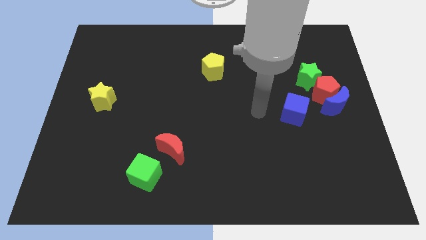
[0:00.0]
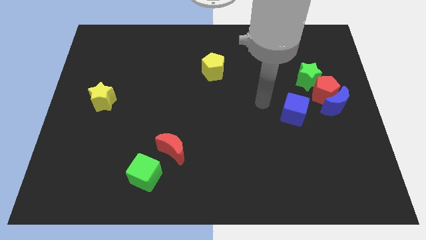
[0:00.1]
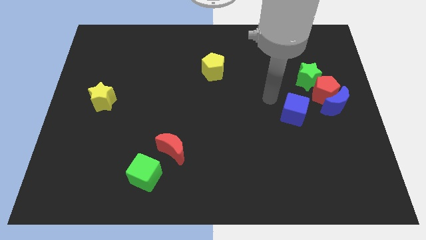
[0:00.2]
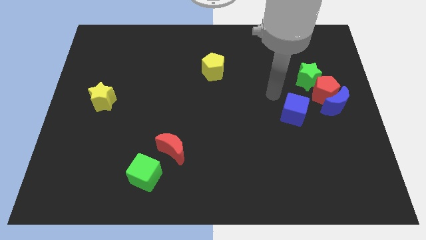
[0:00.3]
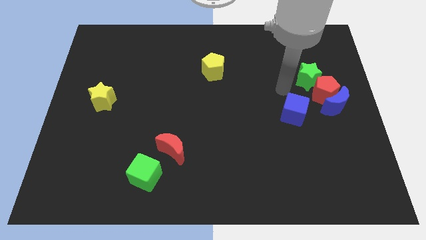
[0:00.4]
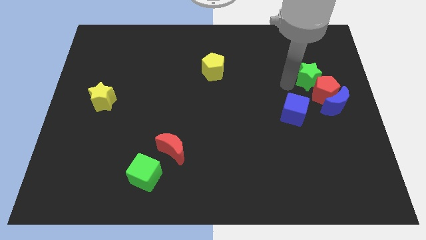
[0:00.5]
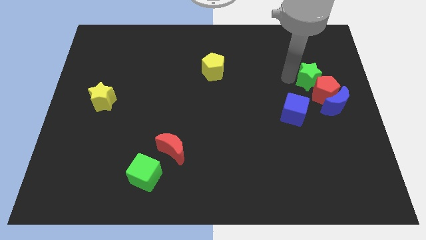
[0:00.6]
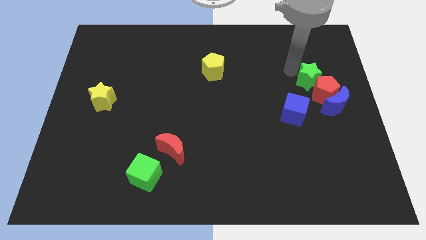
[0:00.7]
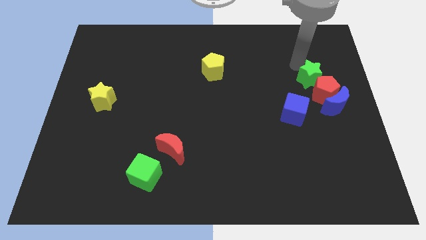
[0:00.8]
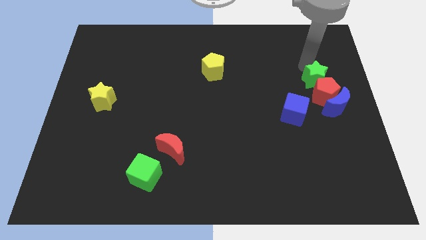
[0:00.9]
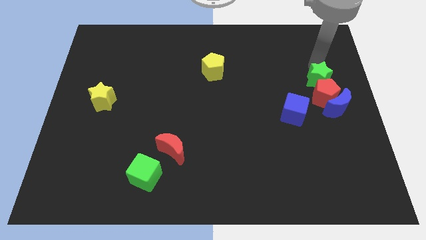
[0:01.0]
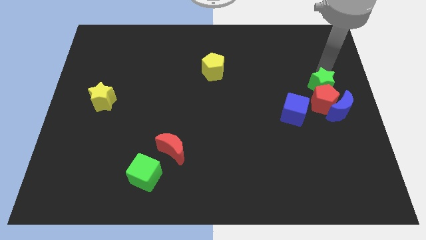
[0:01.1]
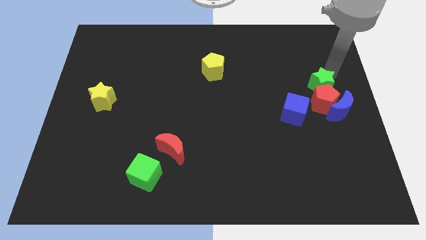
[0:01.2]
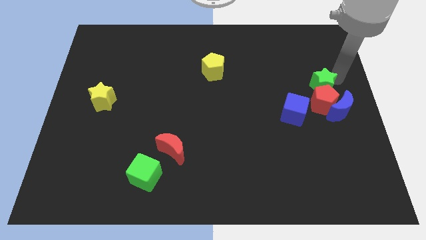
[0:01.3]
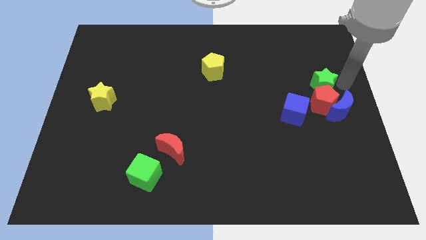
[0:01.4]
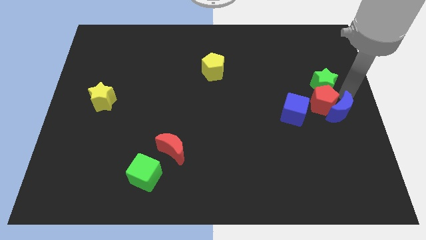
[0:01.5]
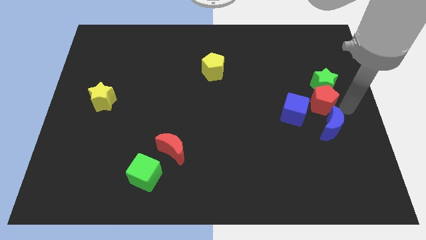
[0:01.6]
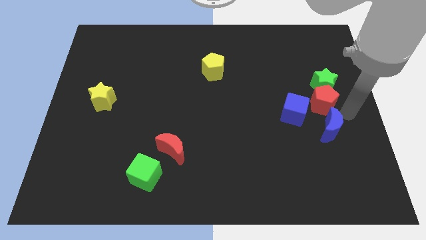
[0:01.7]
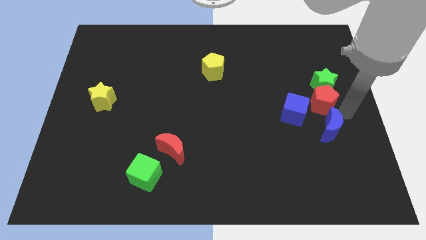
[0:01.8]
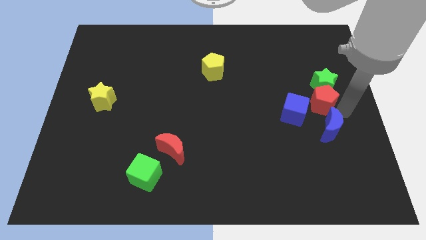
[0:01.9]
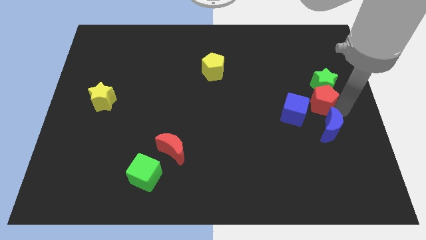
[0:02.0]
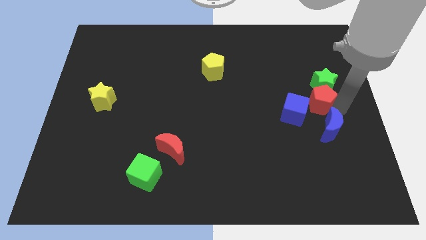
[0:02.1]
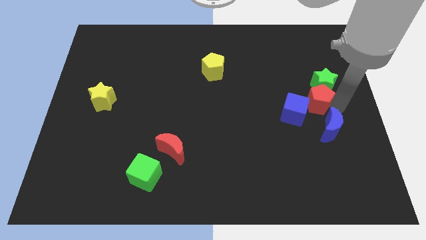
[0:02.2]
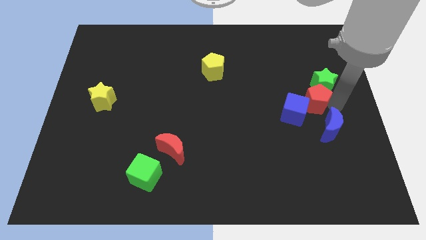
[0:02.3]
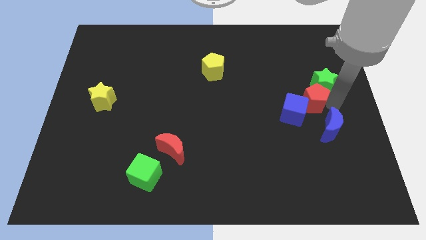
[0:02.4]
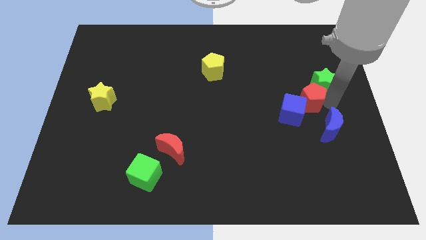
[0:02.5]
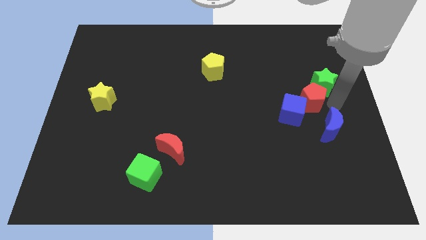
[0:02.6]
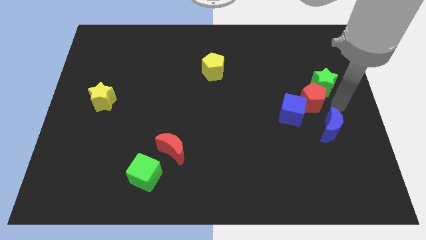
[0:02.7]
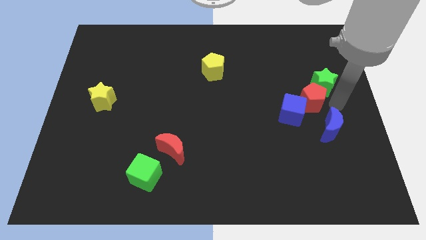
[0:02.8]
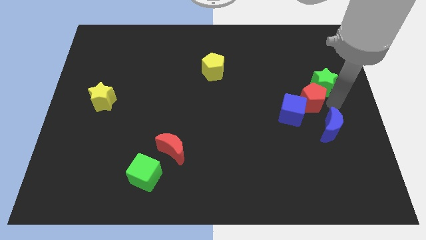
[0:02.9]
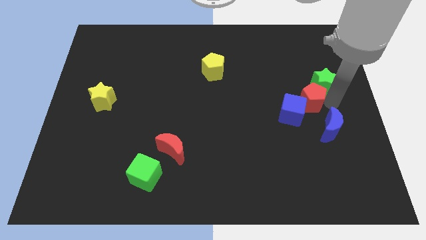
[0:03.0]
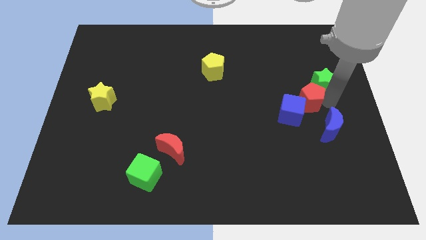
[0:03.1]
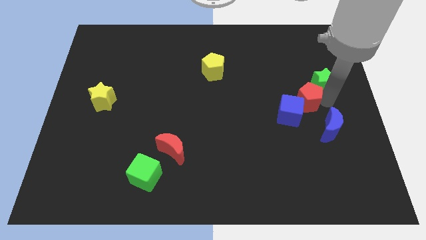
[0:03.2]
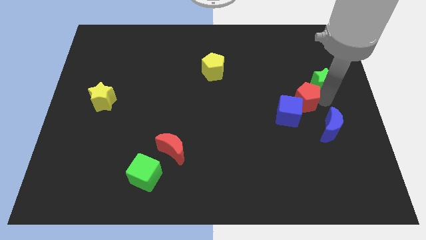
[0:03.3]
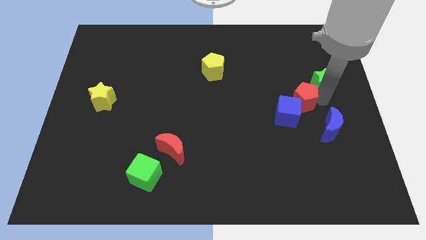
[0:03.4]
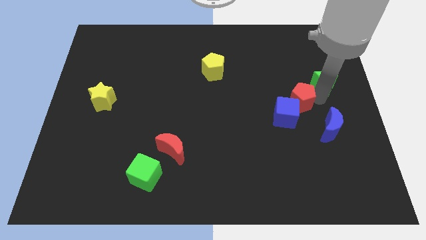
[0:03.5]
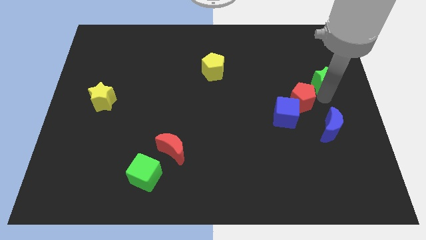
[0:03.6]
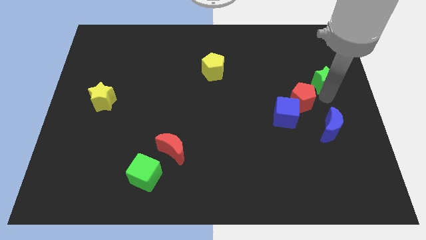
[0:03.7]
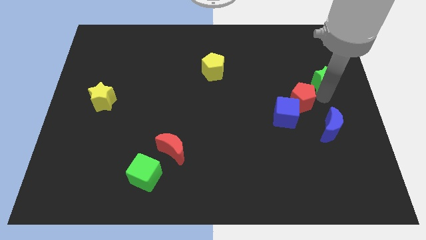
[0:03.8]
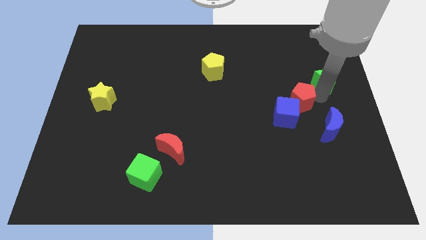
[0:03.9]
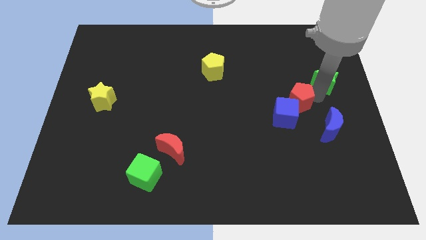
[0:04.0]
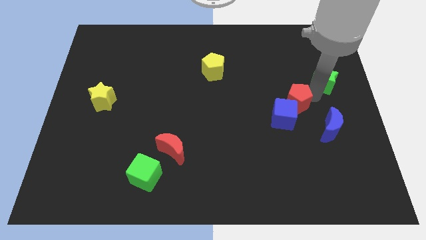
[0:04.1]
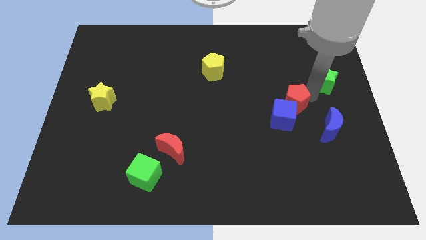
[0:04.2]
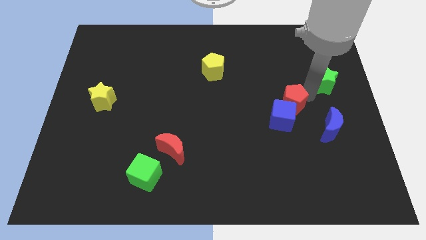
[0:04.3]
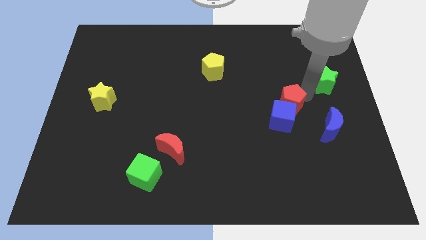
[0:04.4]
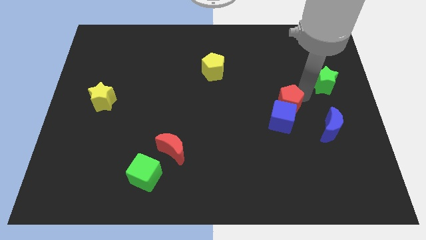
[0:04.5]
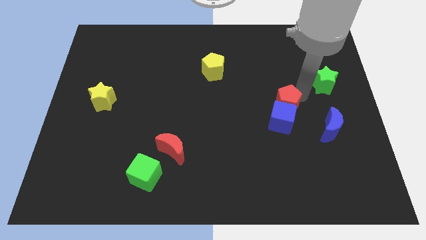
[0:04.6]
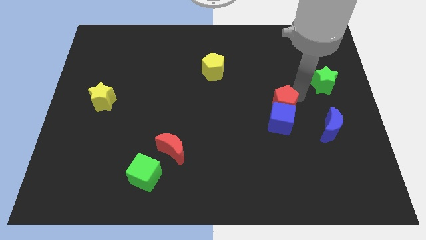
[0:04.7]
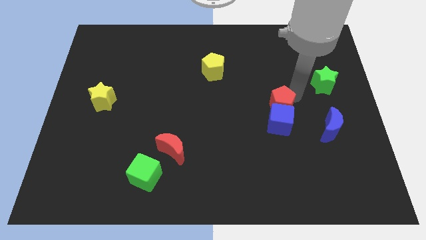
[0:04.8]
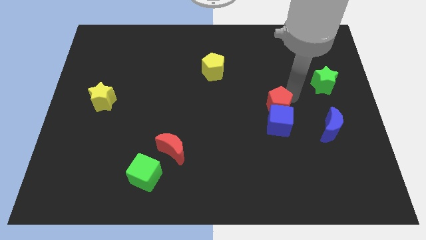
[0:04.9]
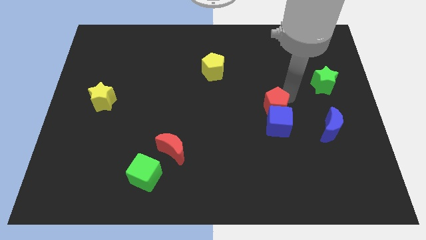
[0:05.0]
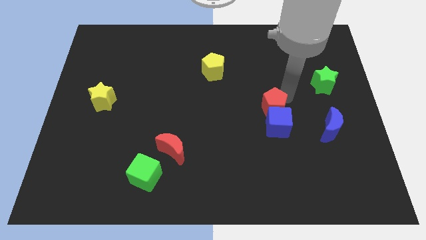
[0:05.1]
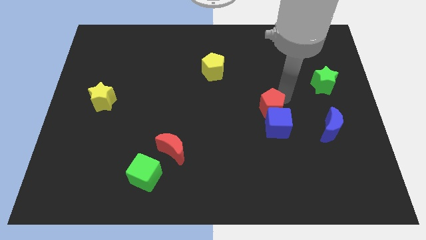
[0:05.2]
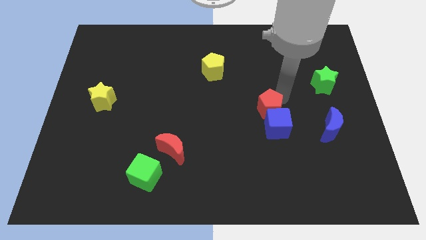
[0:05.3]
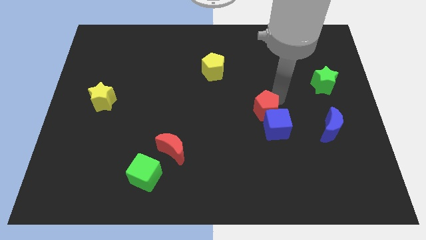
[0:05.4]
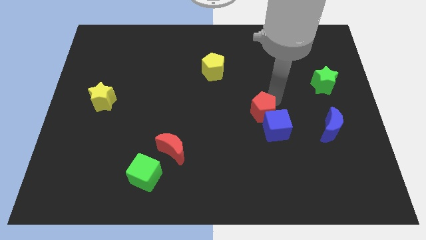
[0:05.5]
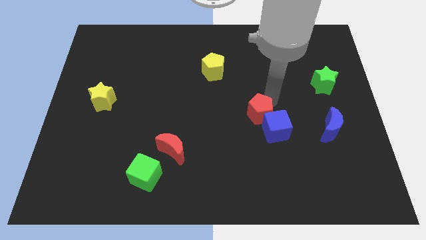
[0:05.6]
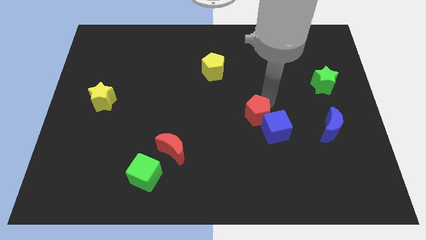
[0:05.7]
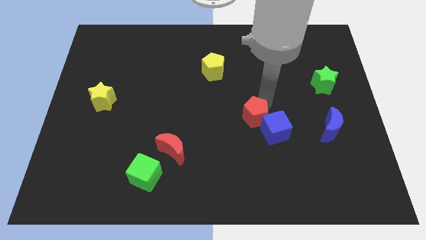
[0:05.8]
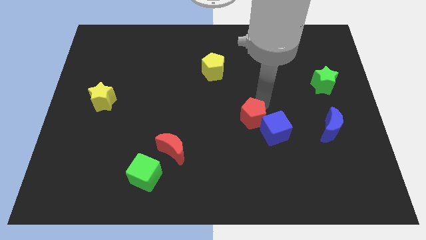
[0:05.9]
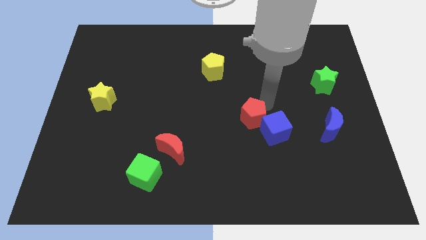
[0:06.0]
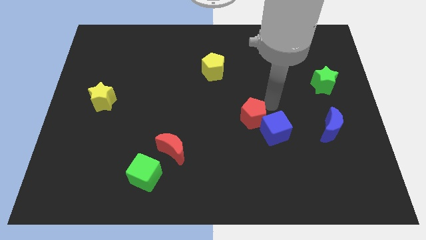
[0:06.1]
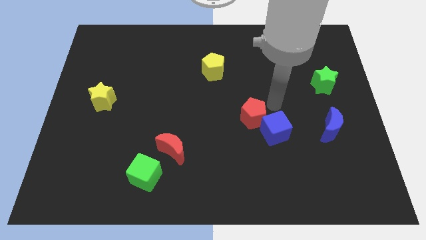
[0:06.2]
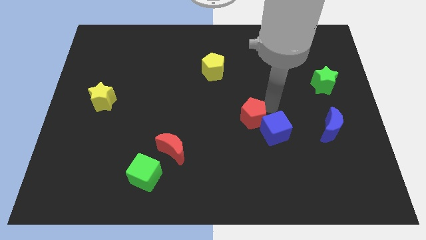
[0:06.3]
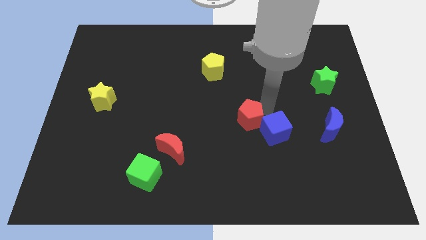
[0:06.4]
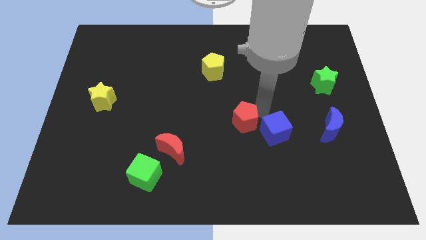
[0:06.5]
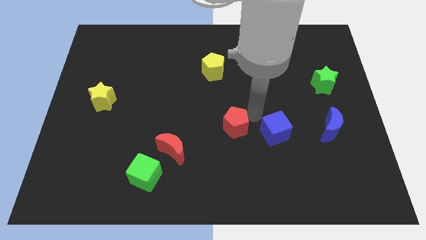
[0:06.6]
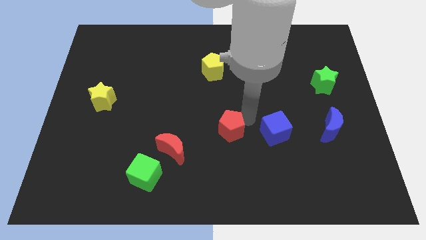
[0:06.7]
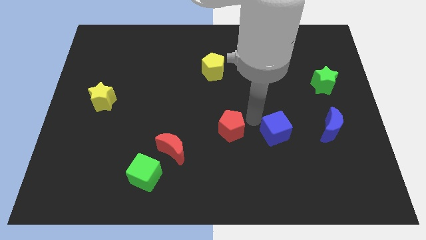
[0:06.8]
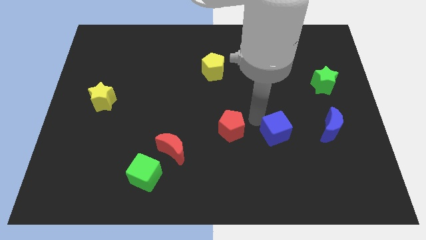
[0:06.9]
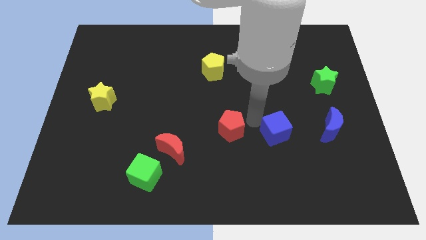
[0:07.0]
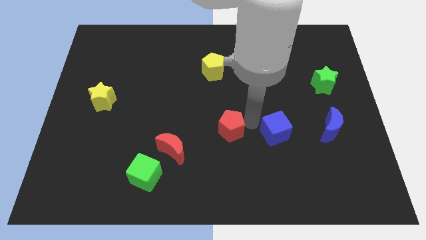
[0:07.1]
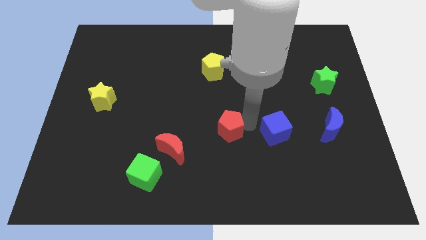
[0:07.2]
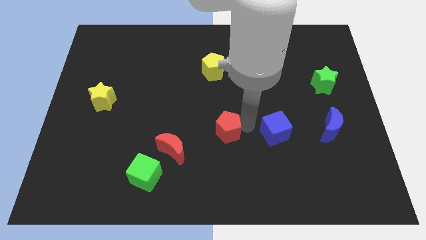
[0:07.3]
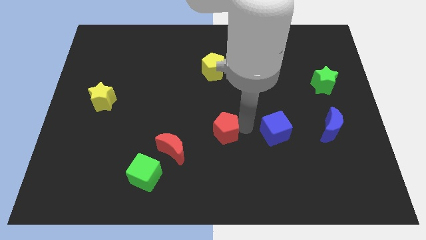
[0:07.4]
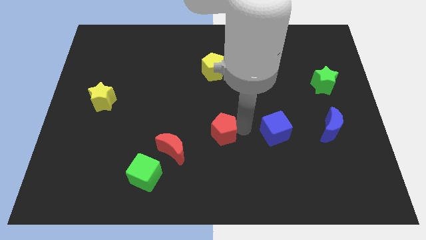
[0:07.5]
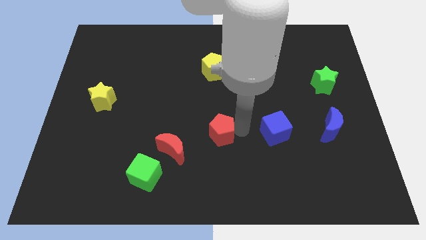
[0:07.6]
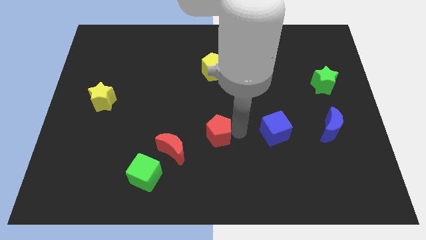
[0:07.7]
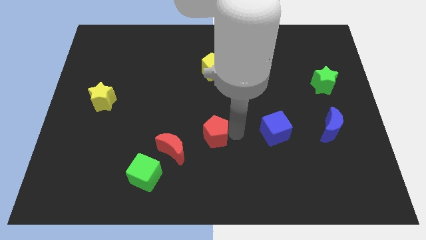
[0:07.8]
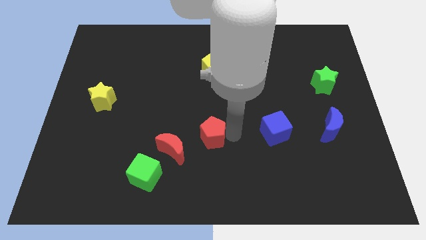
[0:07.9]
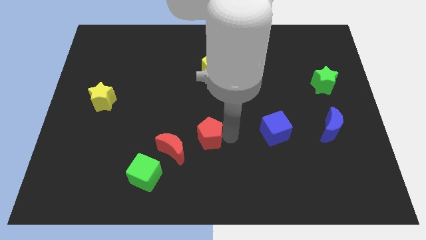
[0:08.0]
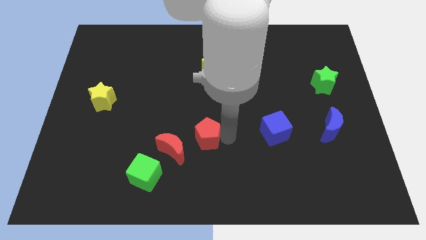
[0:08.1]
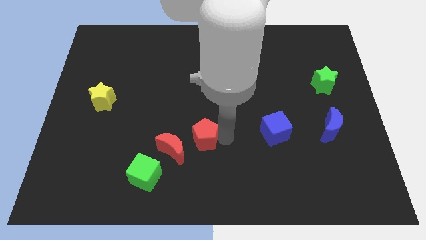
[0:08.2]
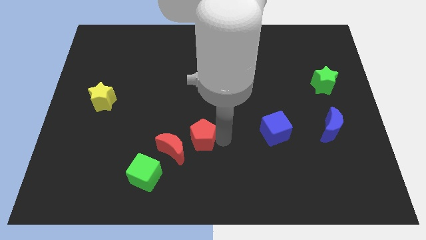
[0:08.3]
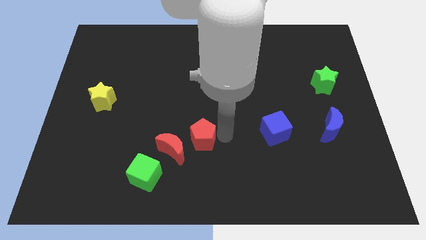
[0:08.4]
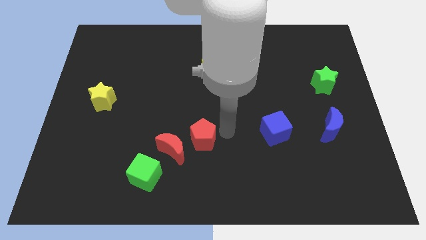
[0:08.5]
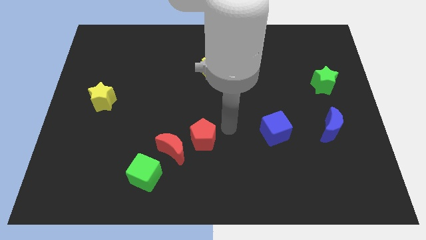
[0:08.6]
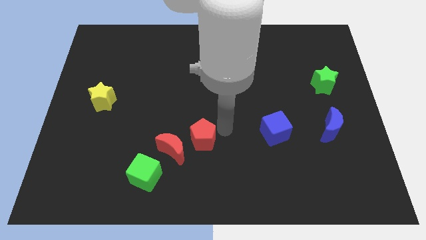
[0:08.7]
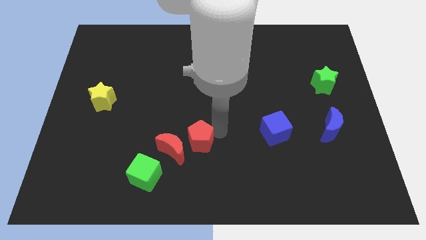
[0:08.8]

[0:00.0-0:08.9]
put the red pentagon to the red moon
